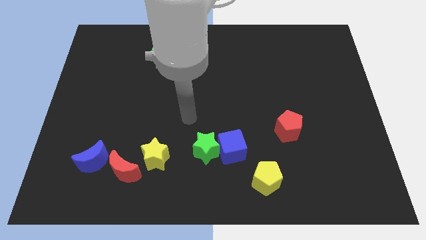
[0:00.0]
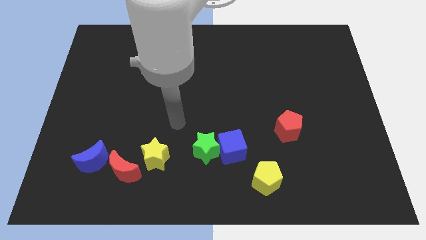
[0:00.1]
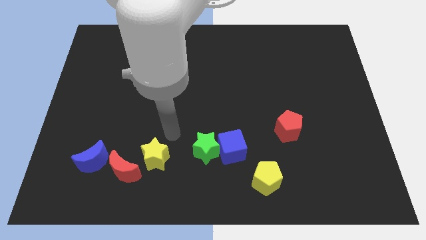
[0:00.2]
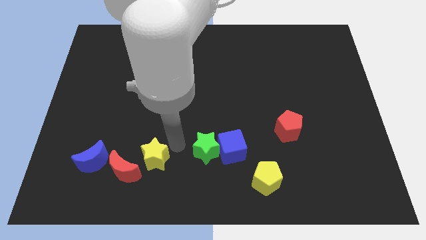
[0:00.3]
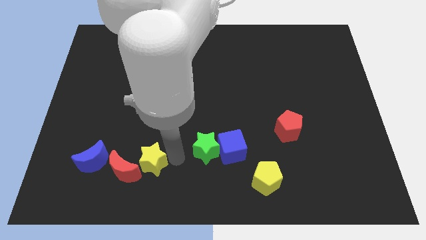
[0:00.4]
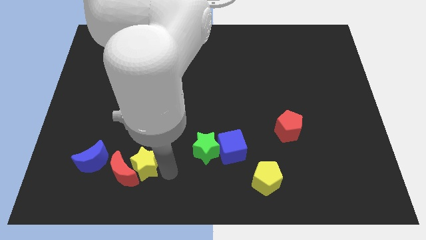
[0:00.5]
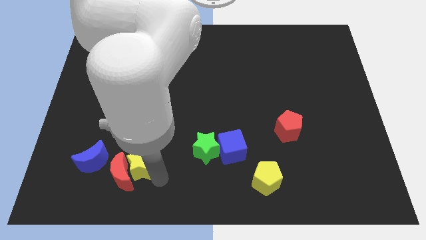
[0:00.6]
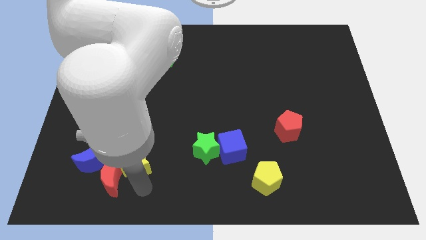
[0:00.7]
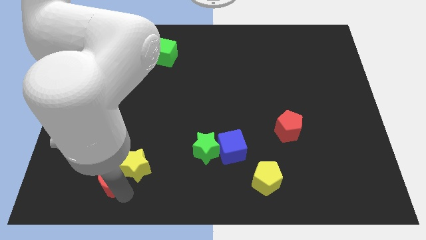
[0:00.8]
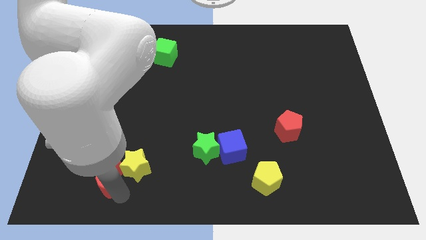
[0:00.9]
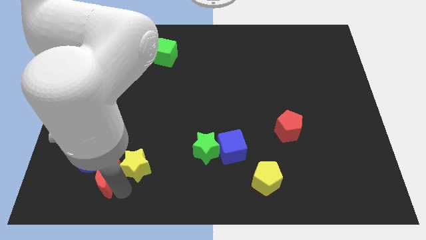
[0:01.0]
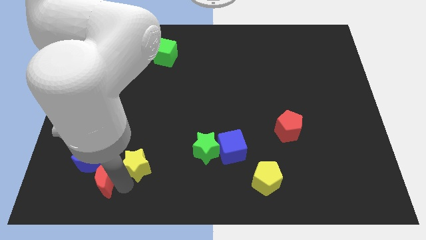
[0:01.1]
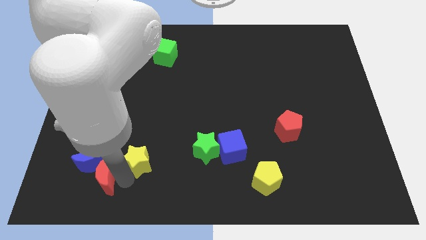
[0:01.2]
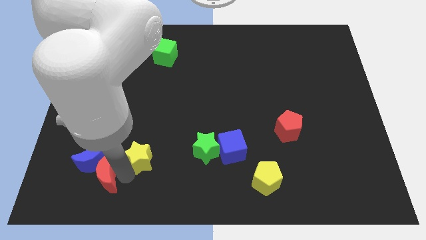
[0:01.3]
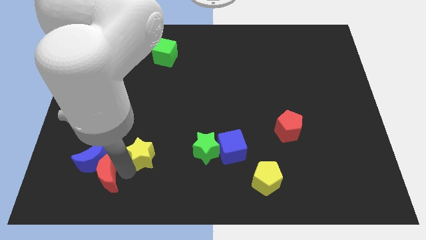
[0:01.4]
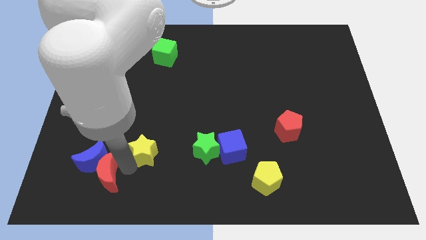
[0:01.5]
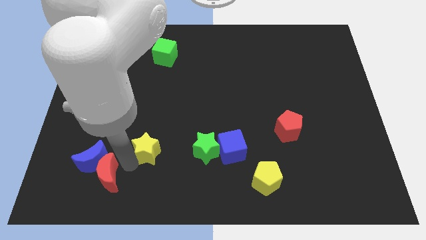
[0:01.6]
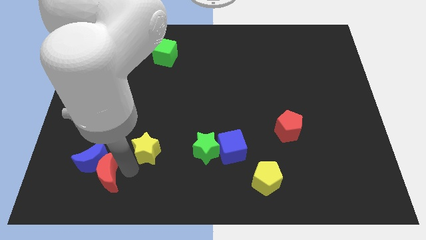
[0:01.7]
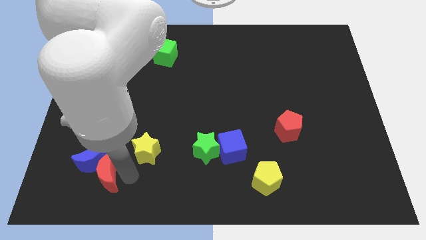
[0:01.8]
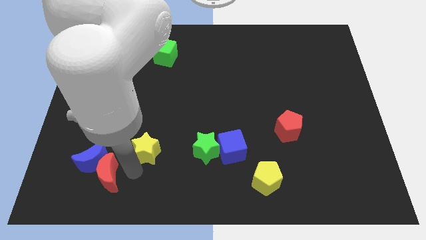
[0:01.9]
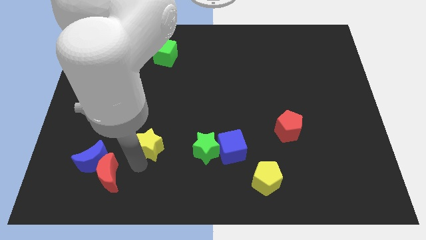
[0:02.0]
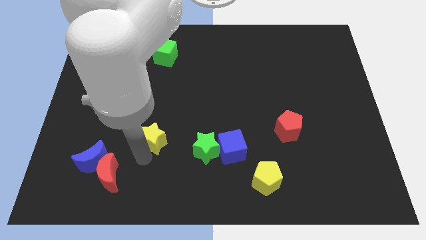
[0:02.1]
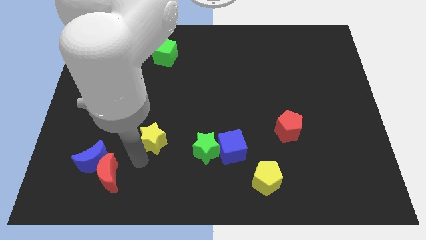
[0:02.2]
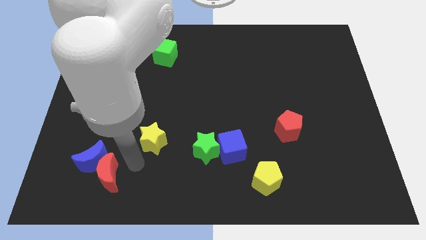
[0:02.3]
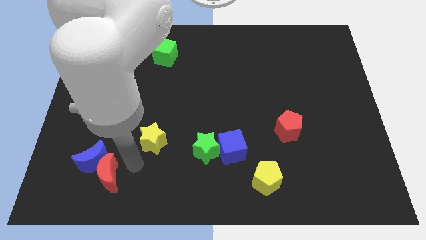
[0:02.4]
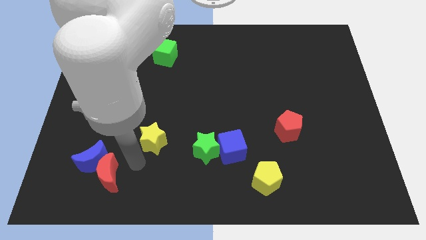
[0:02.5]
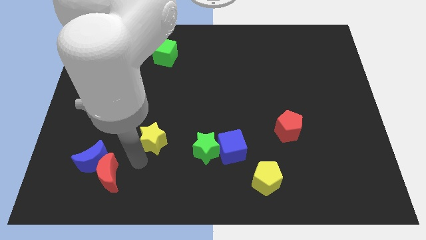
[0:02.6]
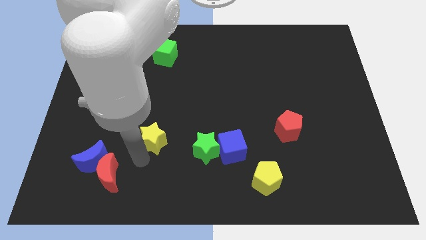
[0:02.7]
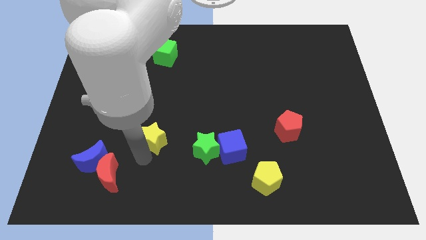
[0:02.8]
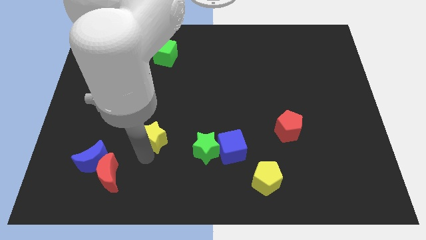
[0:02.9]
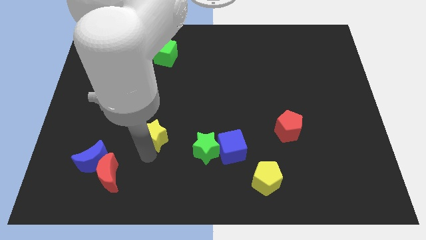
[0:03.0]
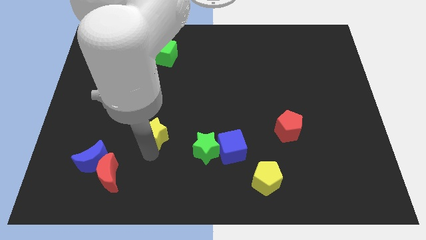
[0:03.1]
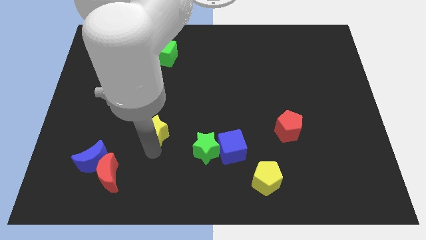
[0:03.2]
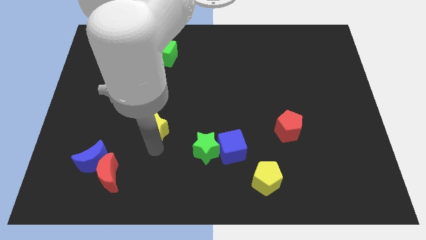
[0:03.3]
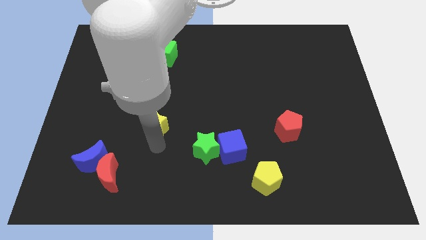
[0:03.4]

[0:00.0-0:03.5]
push the yellow star a bit upwards

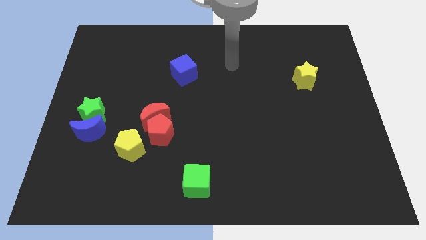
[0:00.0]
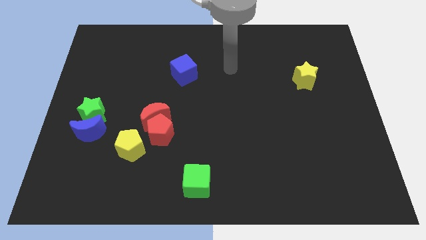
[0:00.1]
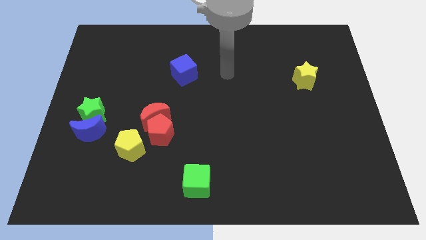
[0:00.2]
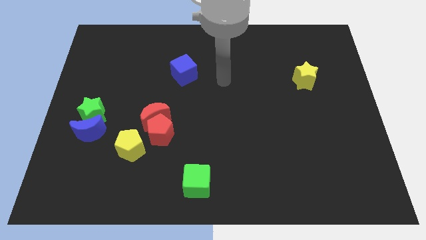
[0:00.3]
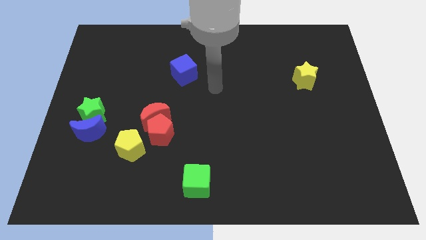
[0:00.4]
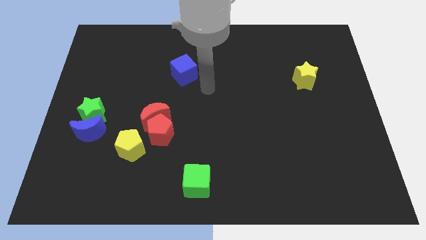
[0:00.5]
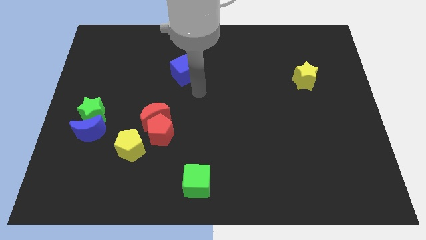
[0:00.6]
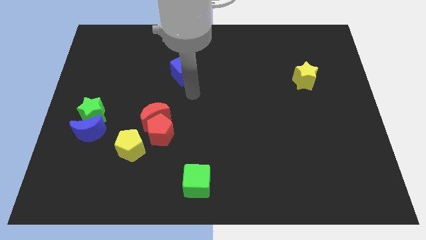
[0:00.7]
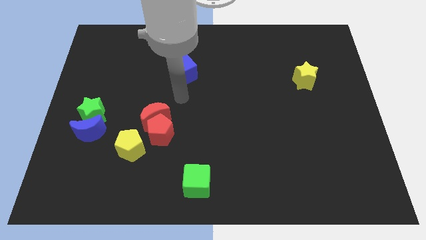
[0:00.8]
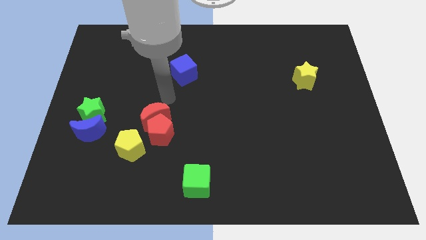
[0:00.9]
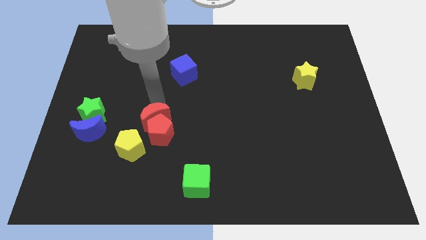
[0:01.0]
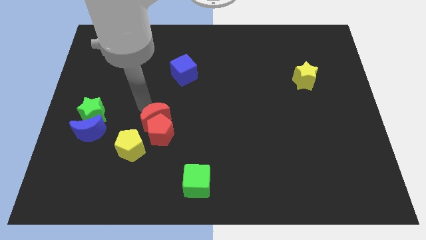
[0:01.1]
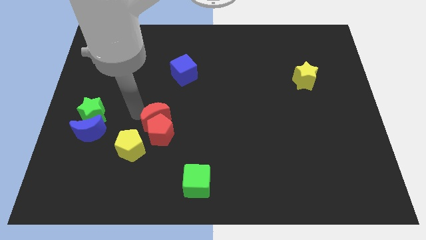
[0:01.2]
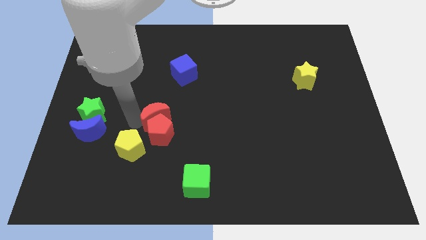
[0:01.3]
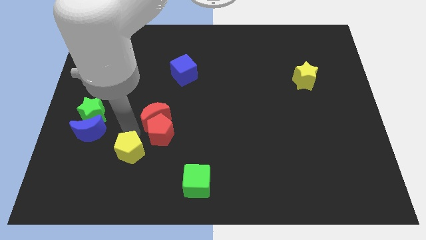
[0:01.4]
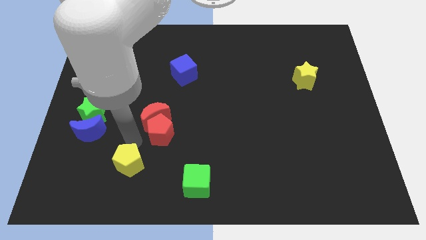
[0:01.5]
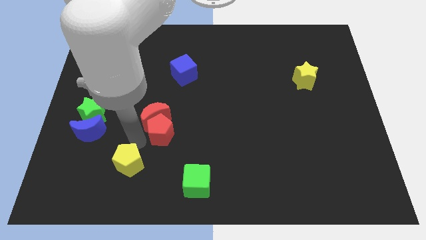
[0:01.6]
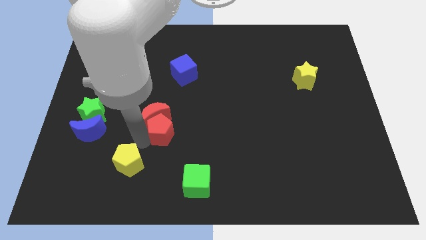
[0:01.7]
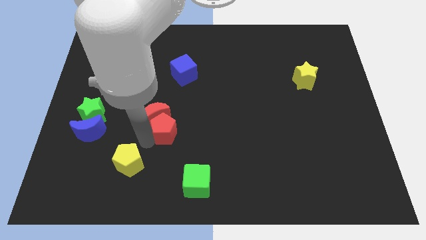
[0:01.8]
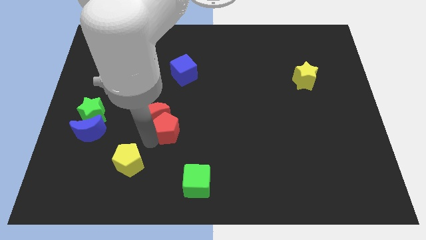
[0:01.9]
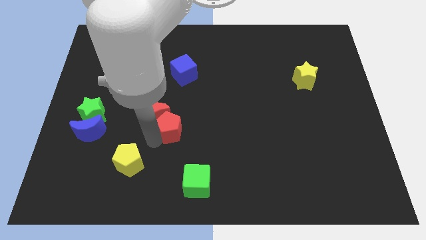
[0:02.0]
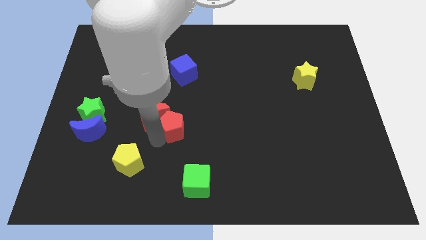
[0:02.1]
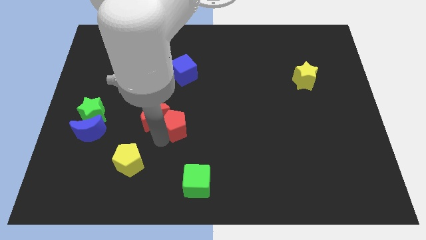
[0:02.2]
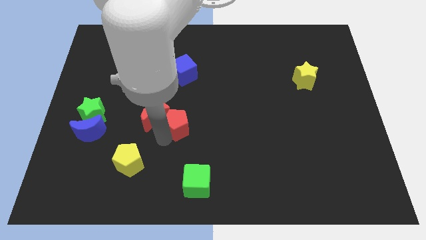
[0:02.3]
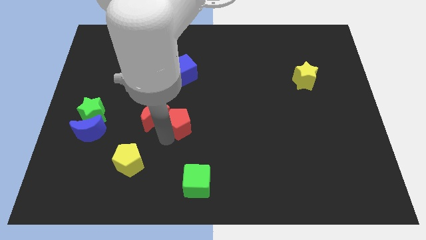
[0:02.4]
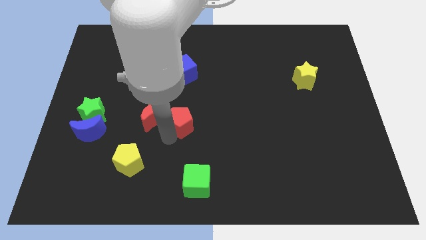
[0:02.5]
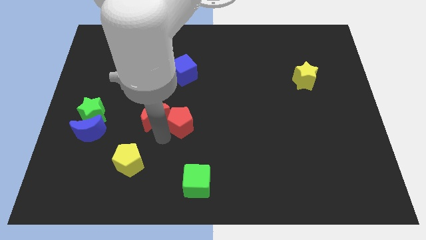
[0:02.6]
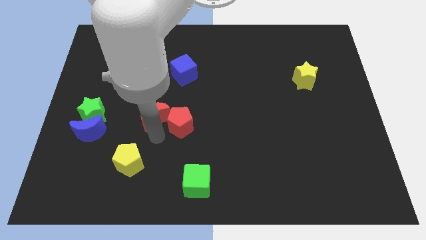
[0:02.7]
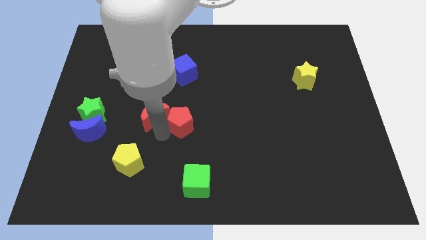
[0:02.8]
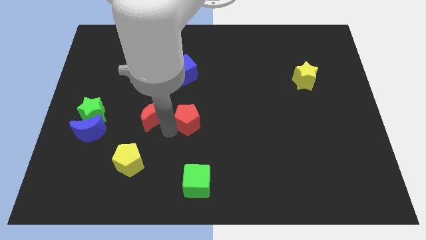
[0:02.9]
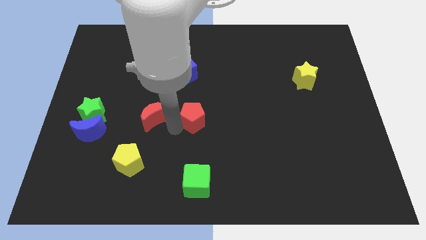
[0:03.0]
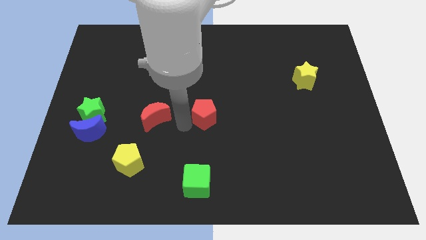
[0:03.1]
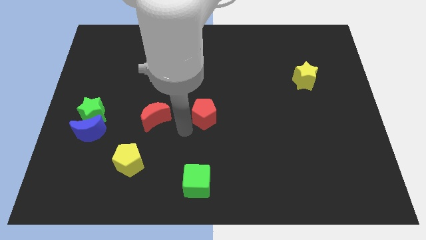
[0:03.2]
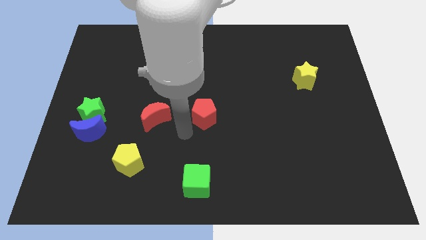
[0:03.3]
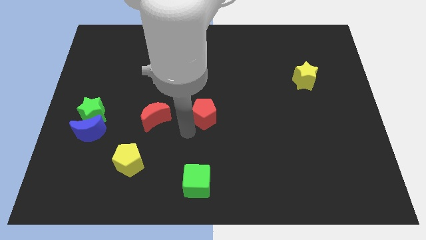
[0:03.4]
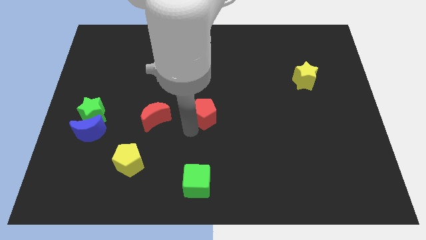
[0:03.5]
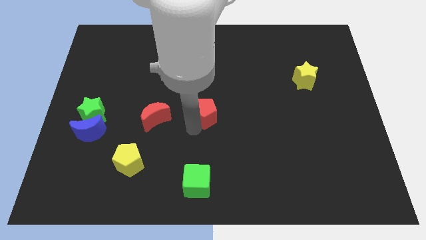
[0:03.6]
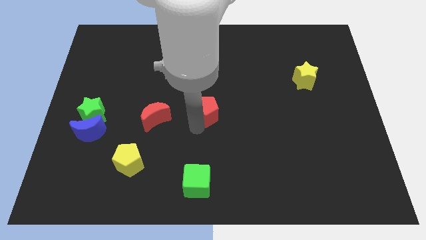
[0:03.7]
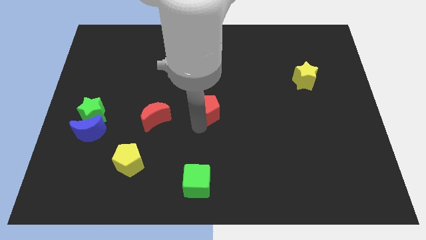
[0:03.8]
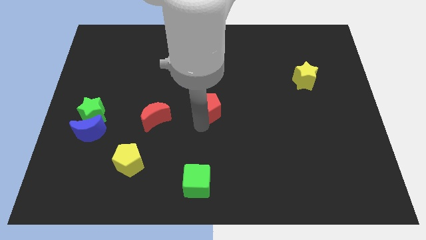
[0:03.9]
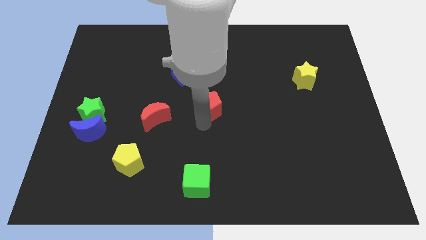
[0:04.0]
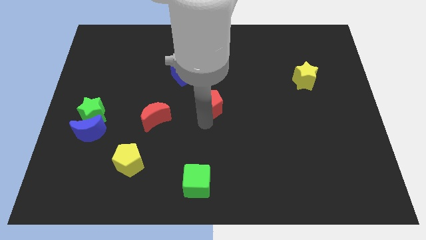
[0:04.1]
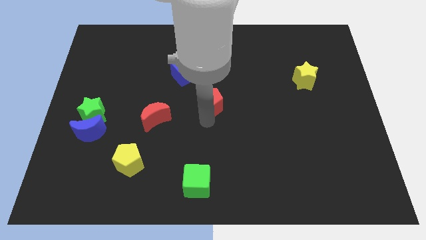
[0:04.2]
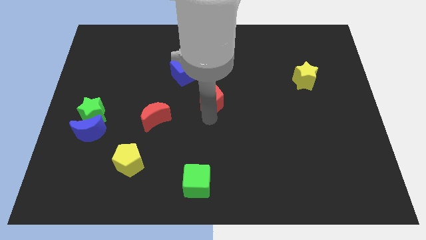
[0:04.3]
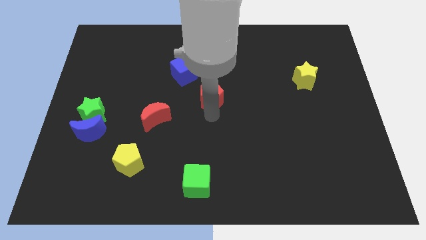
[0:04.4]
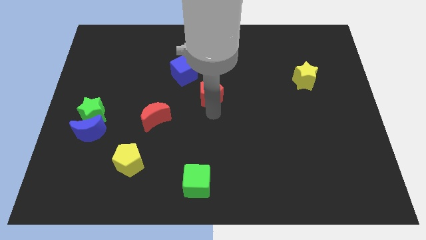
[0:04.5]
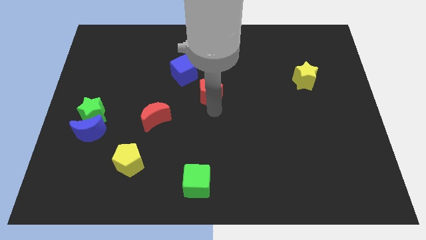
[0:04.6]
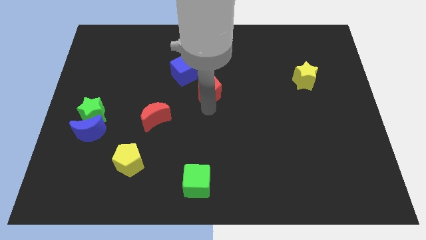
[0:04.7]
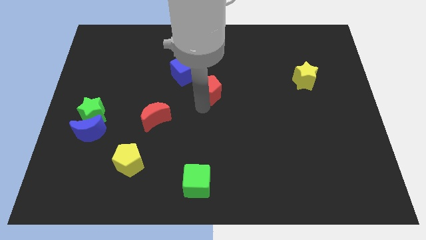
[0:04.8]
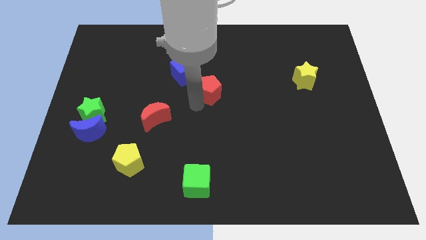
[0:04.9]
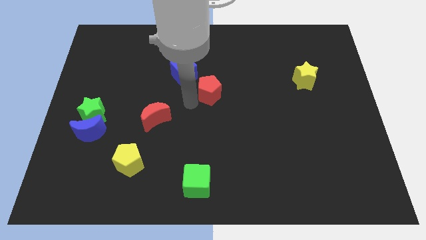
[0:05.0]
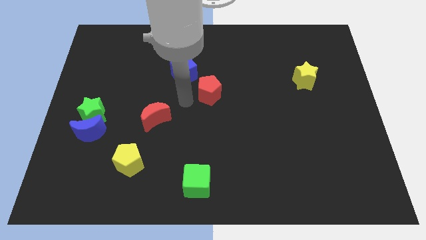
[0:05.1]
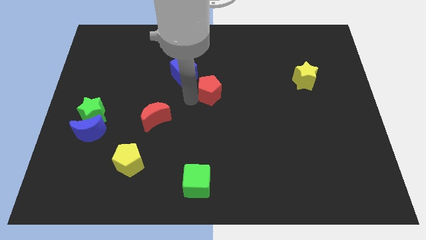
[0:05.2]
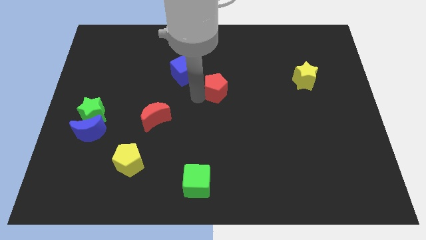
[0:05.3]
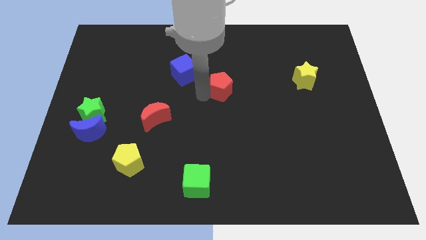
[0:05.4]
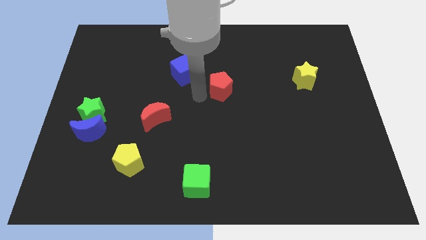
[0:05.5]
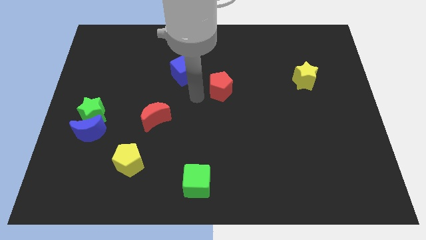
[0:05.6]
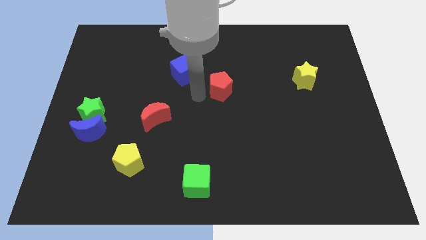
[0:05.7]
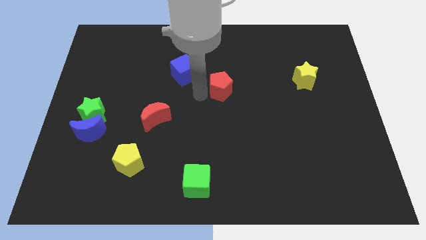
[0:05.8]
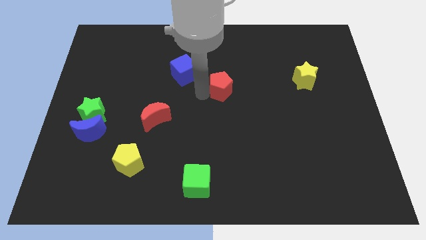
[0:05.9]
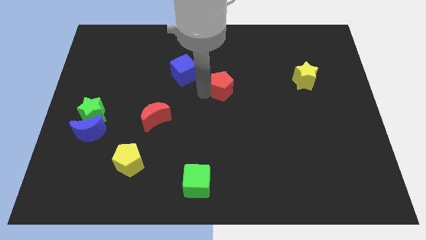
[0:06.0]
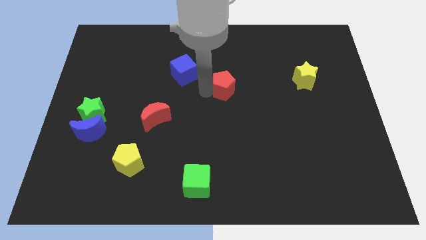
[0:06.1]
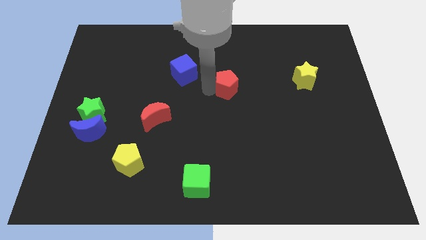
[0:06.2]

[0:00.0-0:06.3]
move the red pentagon diagonally upwards and right
